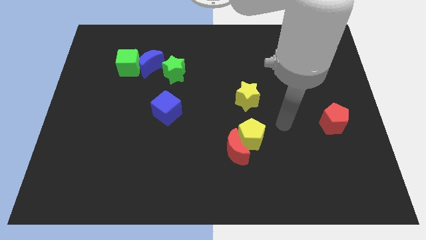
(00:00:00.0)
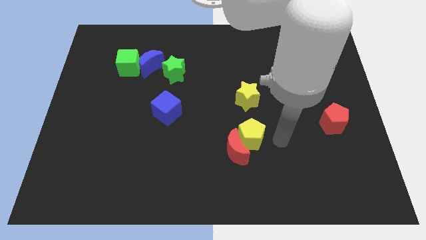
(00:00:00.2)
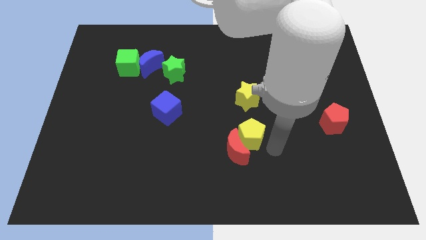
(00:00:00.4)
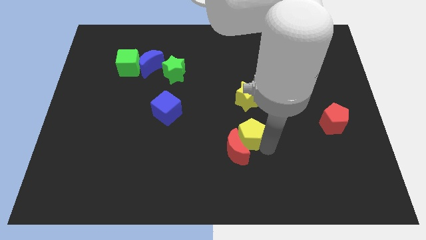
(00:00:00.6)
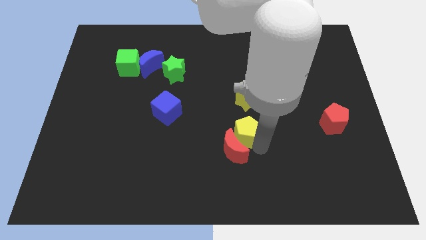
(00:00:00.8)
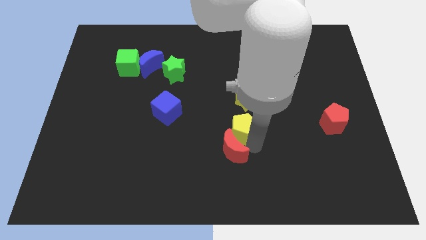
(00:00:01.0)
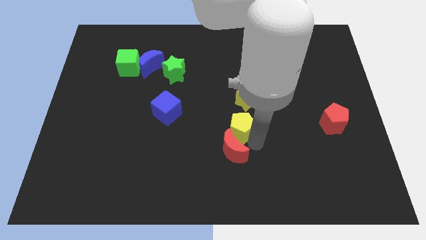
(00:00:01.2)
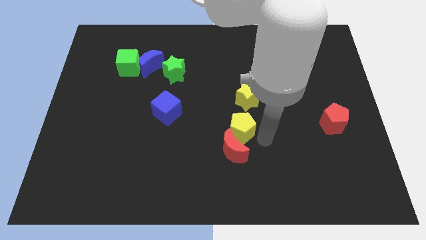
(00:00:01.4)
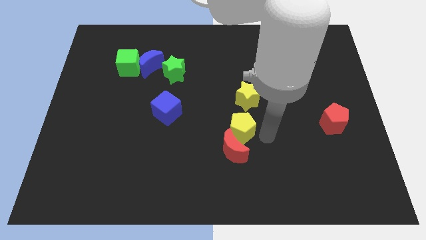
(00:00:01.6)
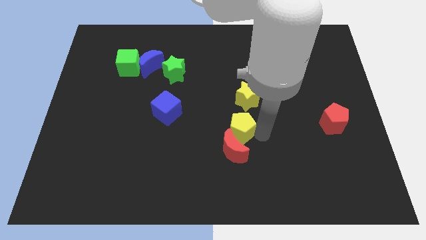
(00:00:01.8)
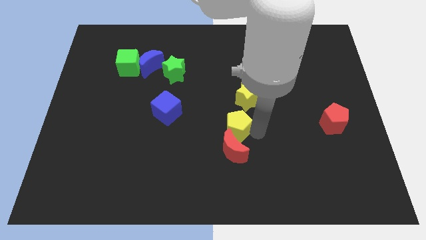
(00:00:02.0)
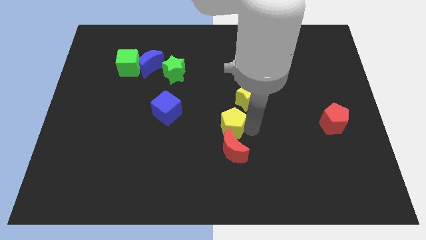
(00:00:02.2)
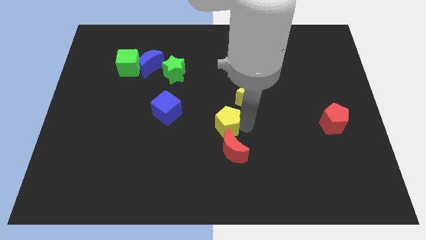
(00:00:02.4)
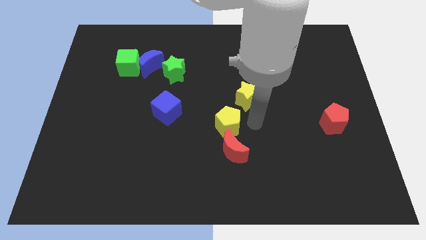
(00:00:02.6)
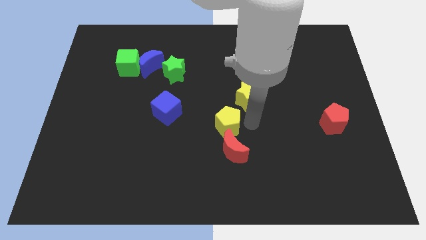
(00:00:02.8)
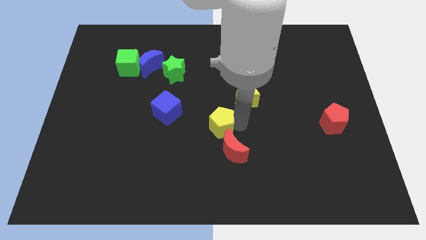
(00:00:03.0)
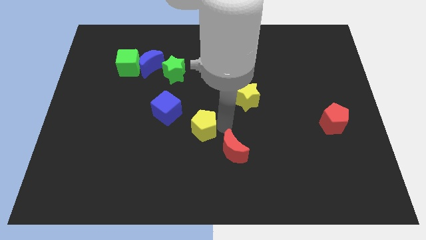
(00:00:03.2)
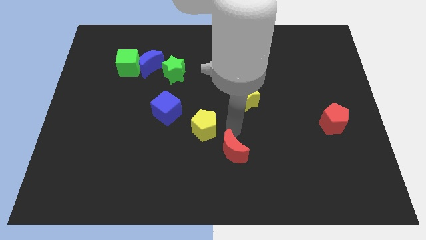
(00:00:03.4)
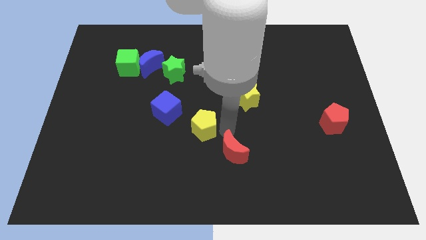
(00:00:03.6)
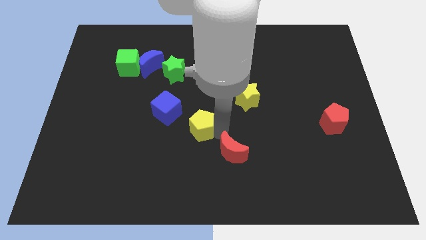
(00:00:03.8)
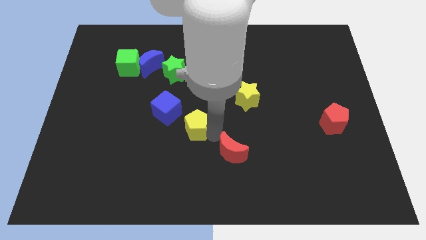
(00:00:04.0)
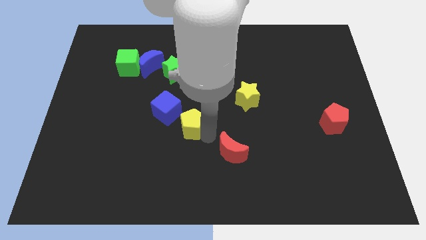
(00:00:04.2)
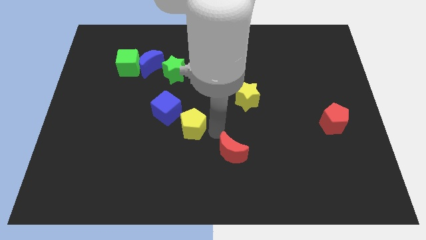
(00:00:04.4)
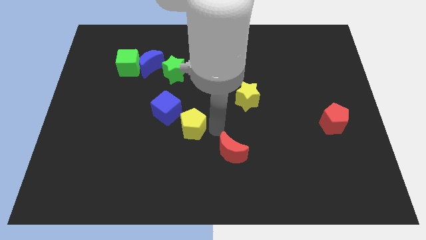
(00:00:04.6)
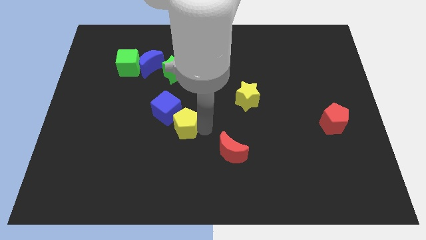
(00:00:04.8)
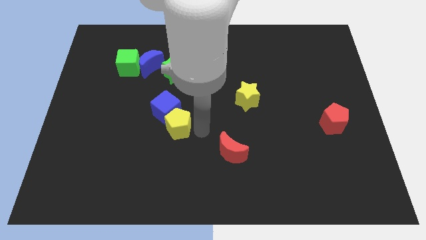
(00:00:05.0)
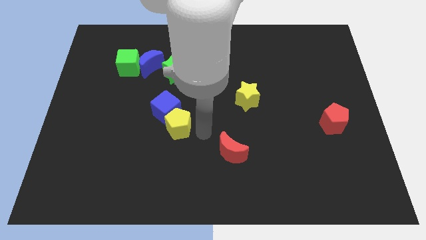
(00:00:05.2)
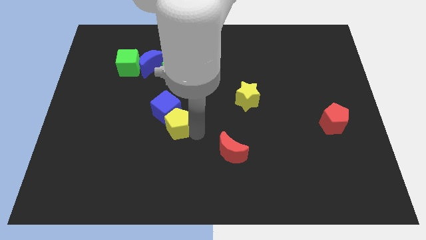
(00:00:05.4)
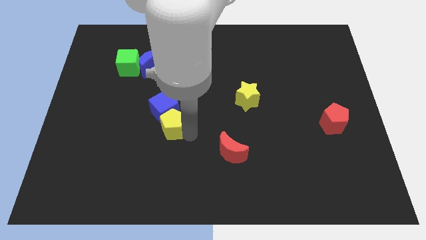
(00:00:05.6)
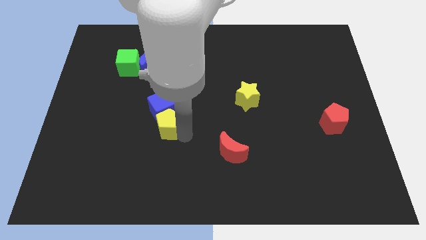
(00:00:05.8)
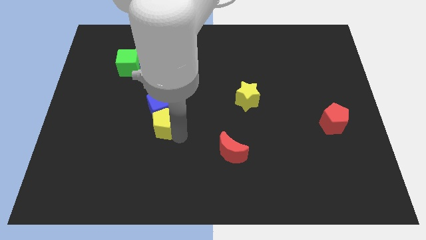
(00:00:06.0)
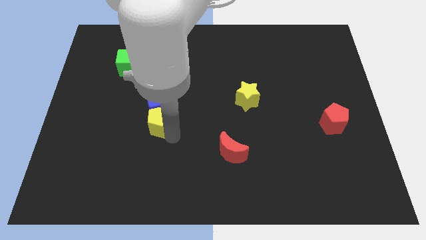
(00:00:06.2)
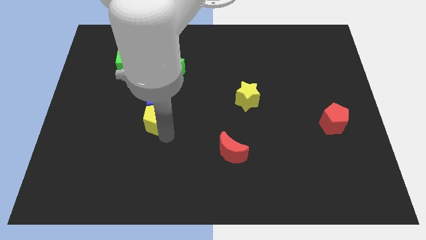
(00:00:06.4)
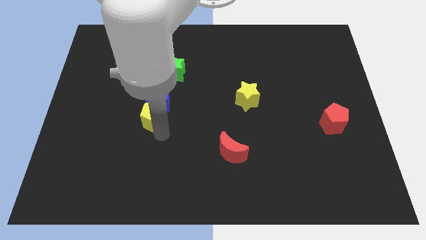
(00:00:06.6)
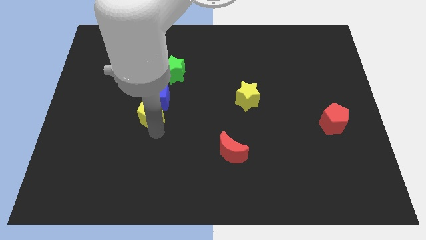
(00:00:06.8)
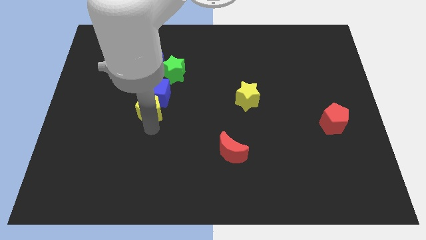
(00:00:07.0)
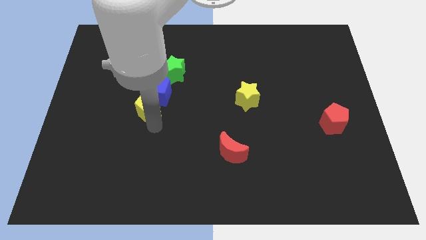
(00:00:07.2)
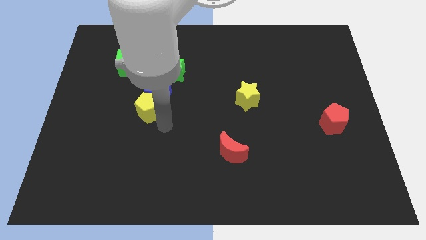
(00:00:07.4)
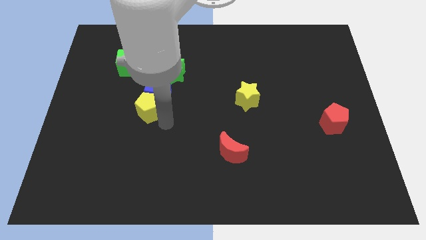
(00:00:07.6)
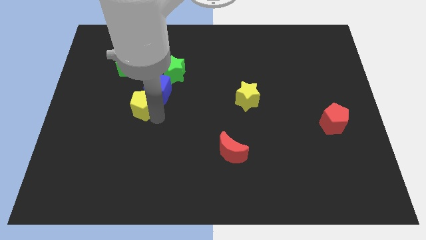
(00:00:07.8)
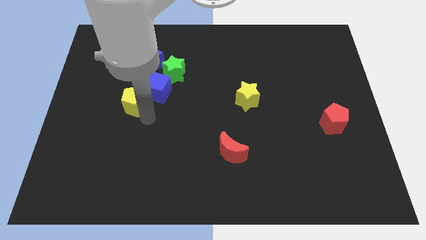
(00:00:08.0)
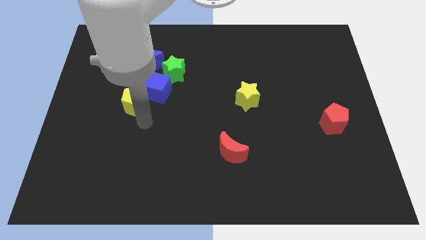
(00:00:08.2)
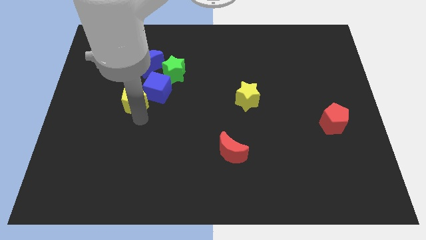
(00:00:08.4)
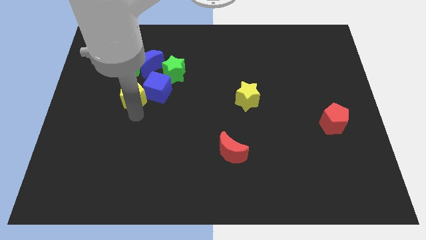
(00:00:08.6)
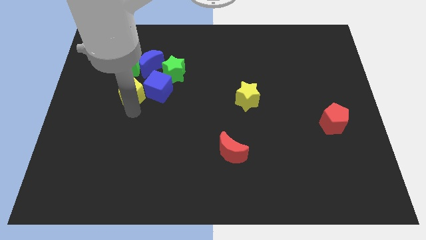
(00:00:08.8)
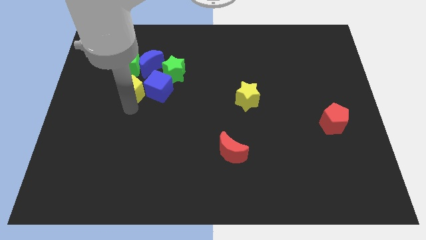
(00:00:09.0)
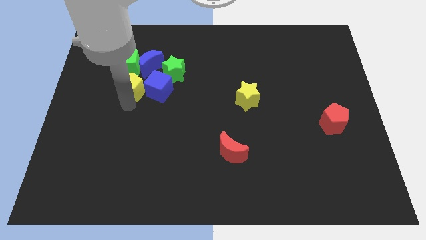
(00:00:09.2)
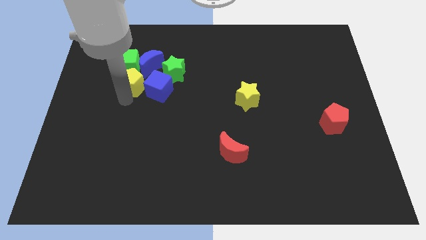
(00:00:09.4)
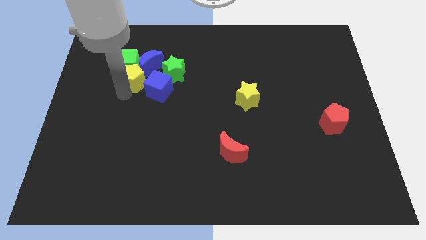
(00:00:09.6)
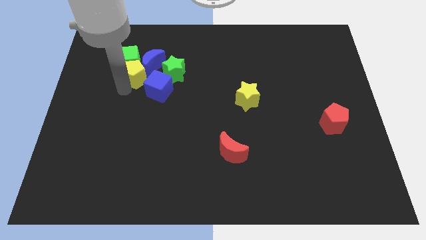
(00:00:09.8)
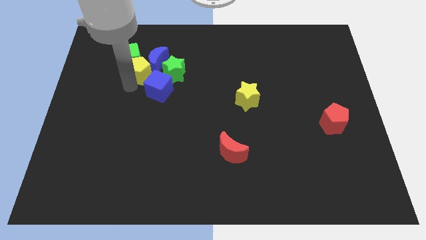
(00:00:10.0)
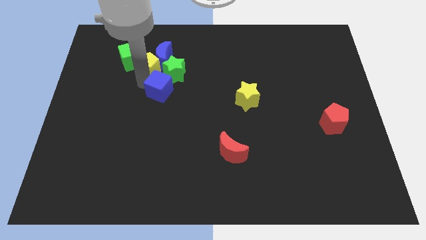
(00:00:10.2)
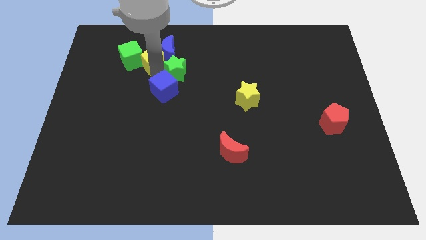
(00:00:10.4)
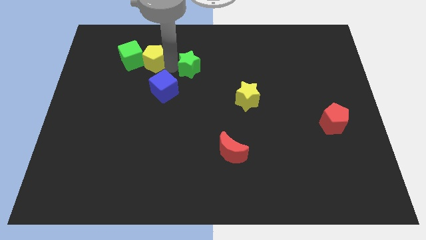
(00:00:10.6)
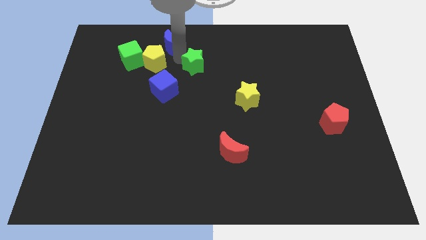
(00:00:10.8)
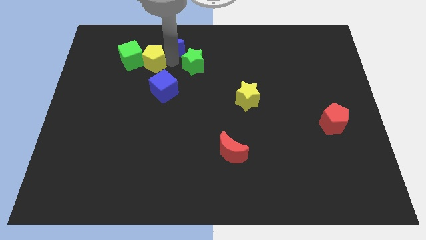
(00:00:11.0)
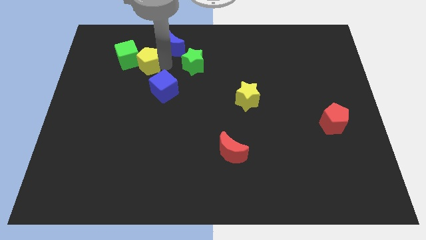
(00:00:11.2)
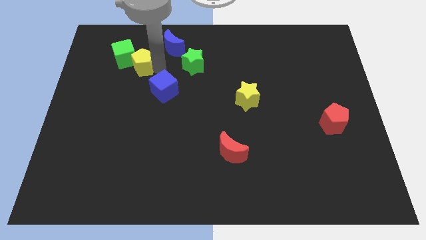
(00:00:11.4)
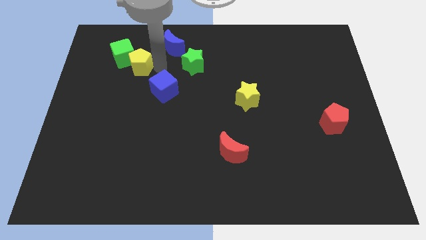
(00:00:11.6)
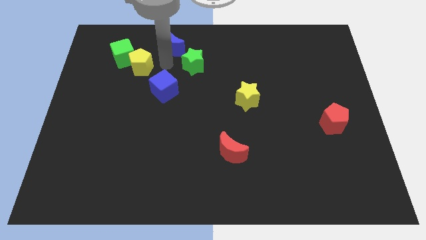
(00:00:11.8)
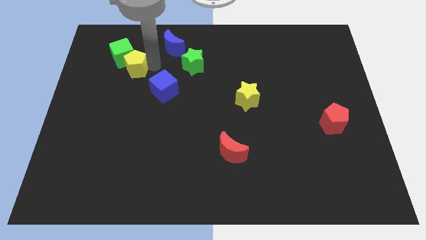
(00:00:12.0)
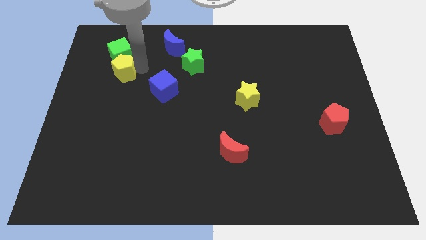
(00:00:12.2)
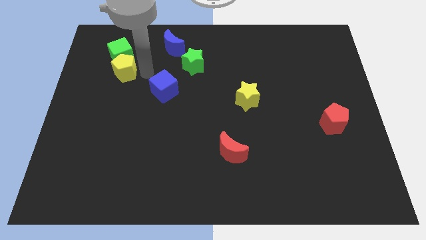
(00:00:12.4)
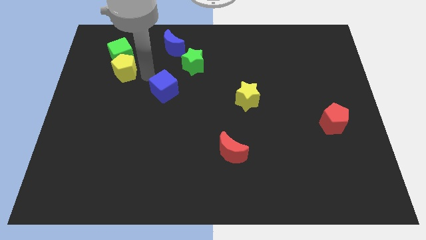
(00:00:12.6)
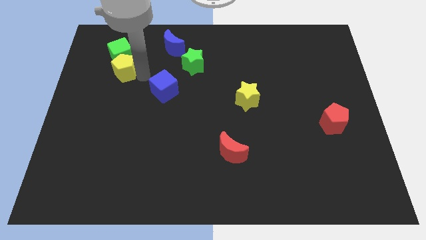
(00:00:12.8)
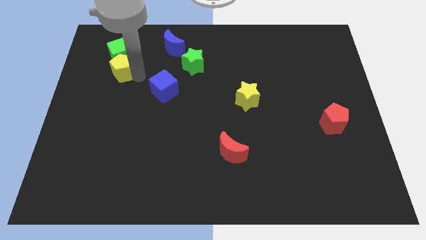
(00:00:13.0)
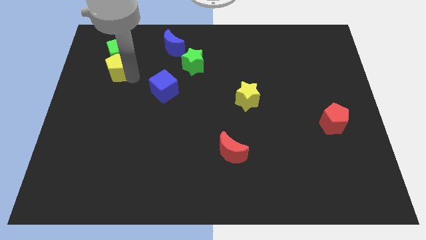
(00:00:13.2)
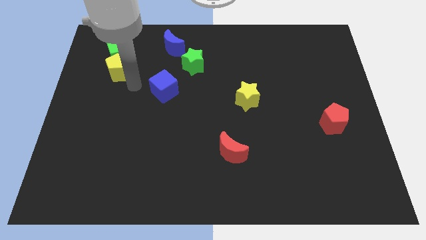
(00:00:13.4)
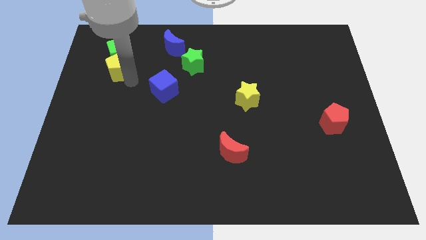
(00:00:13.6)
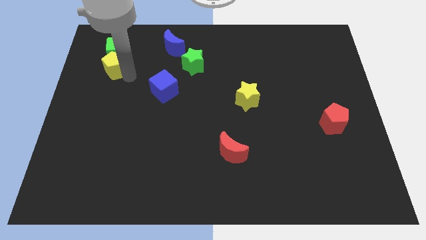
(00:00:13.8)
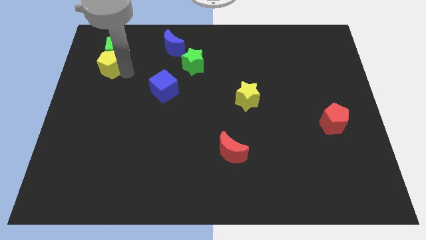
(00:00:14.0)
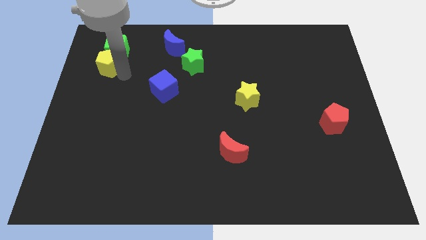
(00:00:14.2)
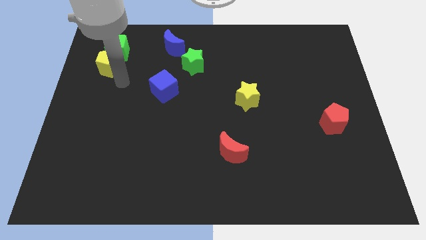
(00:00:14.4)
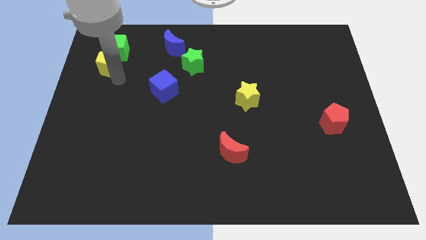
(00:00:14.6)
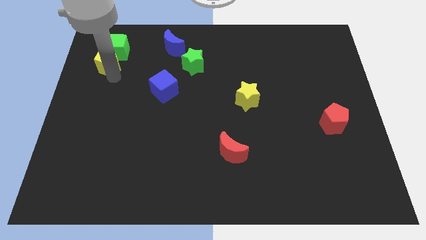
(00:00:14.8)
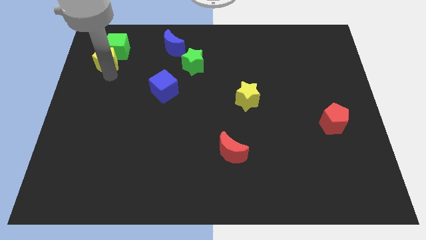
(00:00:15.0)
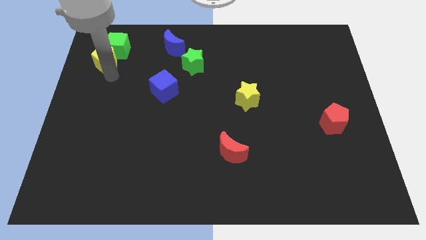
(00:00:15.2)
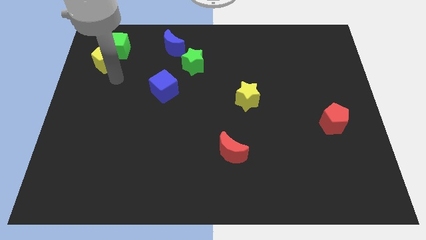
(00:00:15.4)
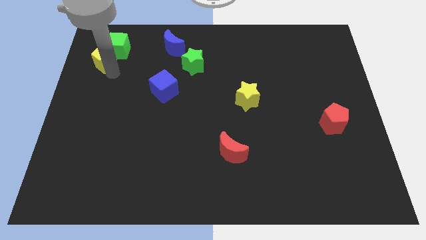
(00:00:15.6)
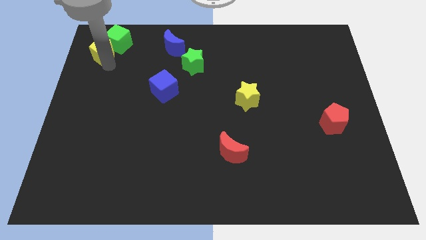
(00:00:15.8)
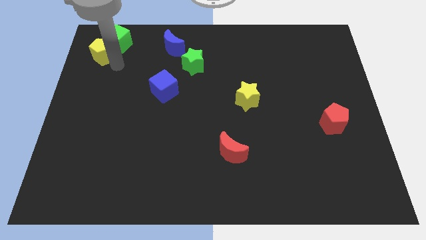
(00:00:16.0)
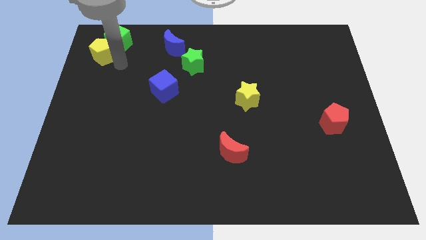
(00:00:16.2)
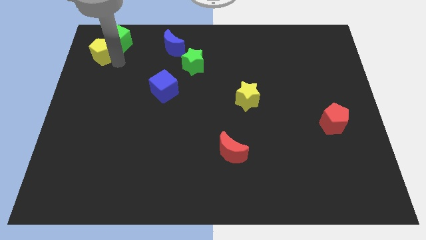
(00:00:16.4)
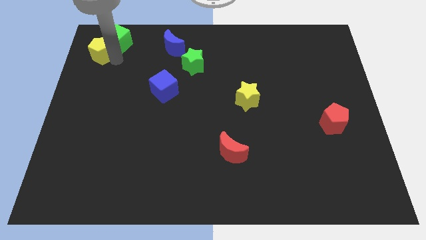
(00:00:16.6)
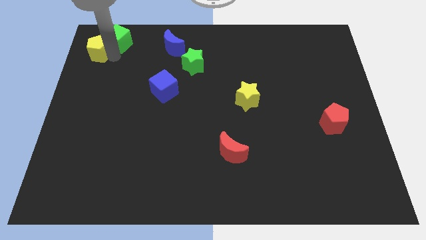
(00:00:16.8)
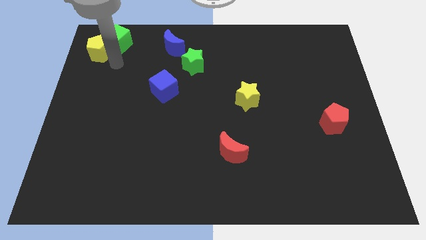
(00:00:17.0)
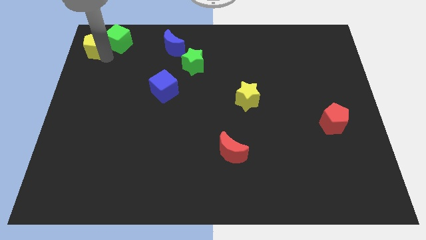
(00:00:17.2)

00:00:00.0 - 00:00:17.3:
move the yellow pentagon to the top left of the board
